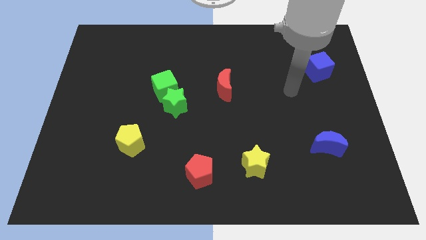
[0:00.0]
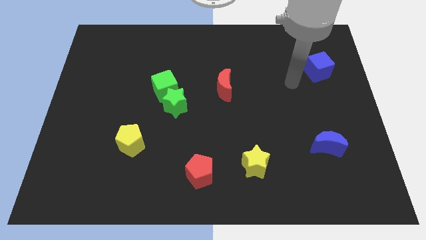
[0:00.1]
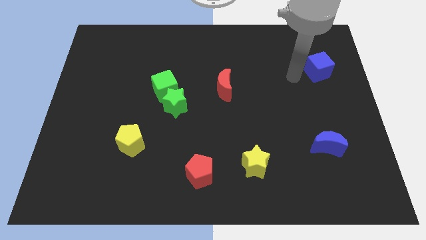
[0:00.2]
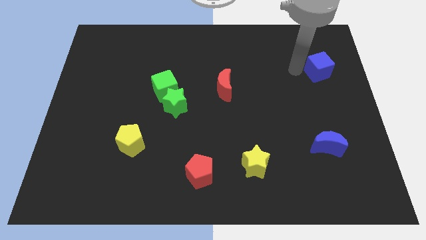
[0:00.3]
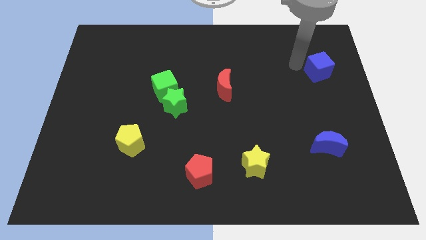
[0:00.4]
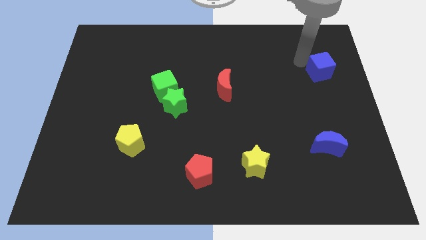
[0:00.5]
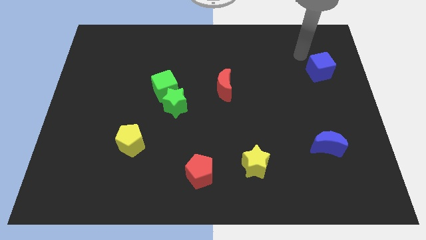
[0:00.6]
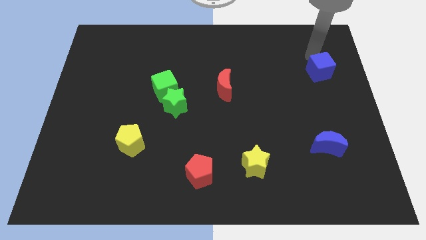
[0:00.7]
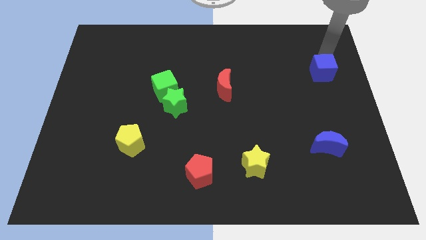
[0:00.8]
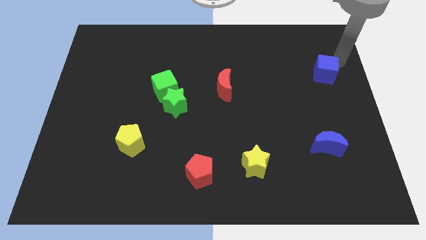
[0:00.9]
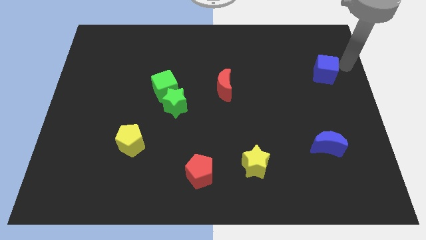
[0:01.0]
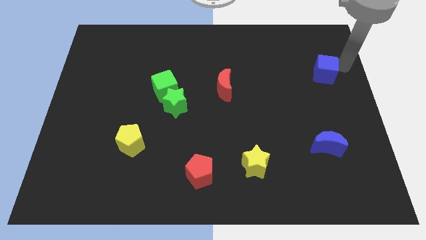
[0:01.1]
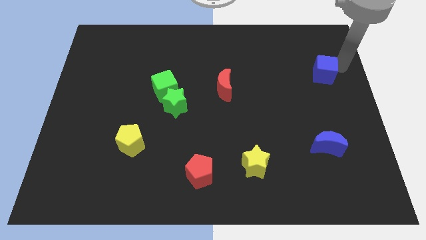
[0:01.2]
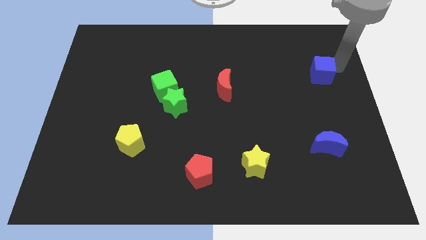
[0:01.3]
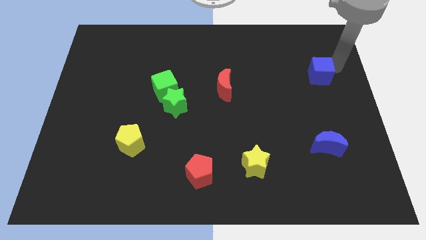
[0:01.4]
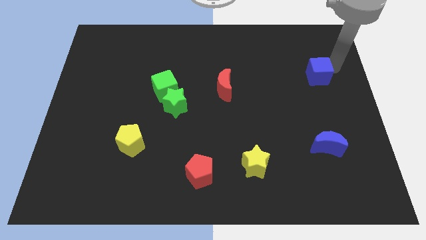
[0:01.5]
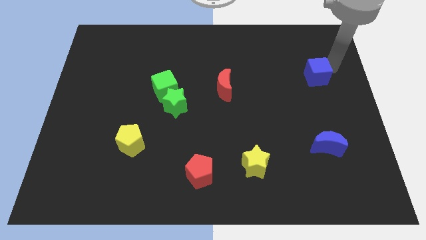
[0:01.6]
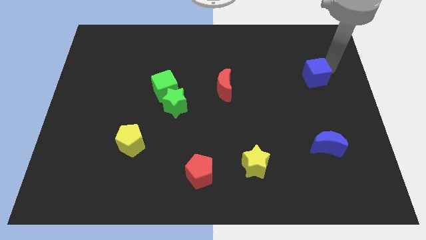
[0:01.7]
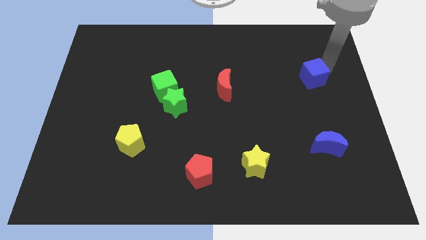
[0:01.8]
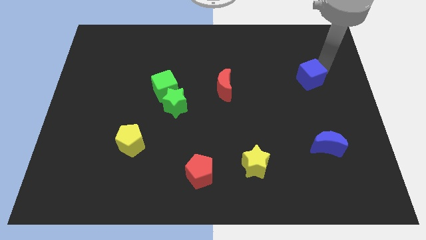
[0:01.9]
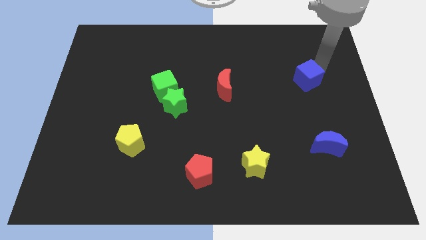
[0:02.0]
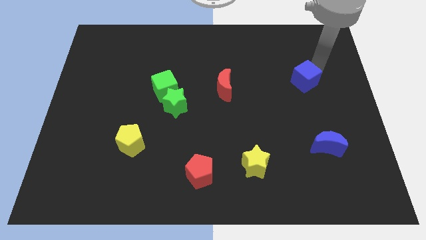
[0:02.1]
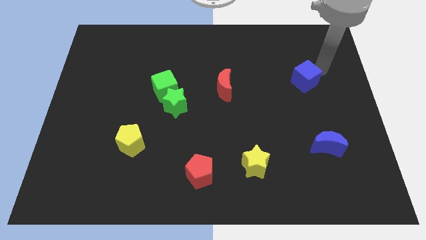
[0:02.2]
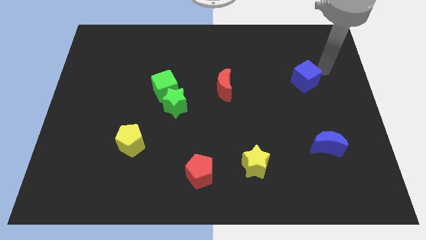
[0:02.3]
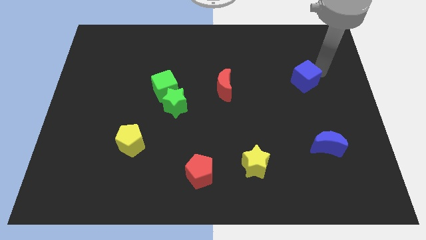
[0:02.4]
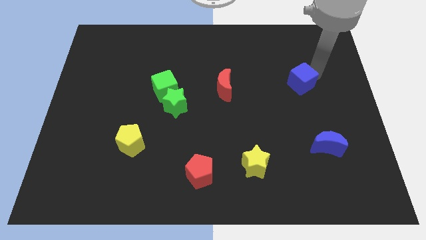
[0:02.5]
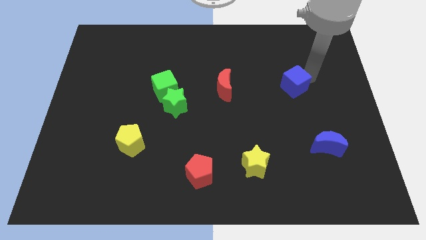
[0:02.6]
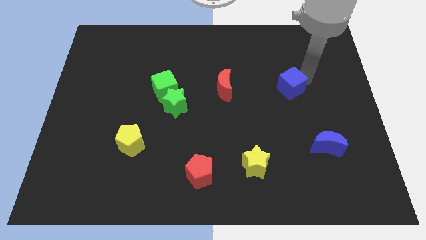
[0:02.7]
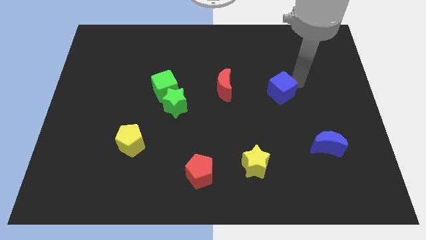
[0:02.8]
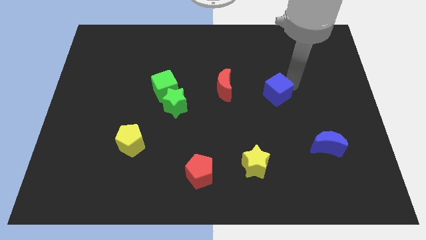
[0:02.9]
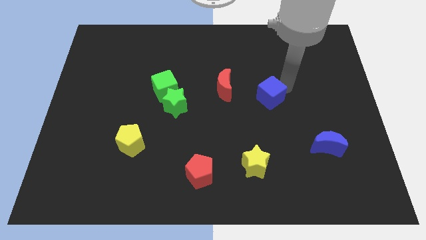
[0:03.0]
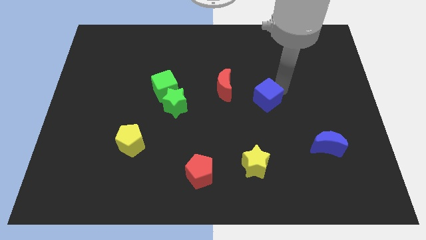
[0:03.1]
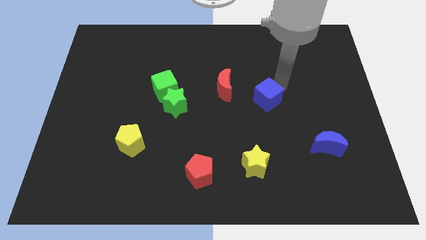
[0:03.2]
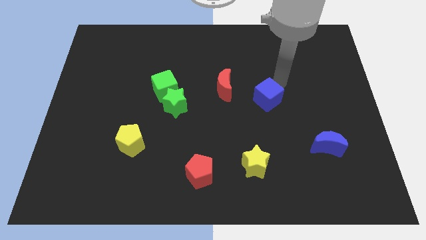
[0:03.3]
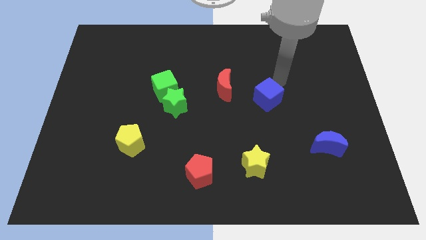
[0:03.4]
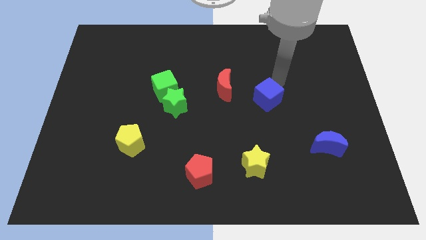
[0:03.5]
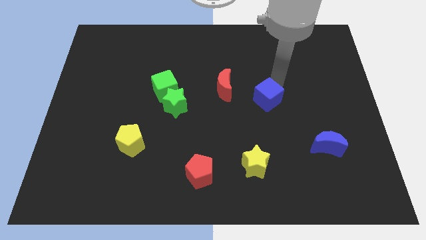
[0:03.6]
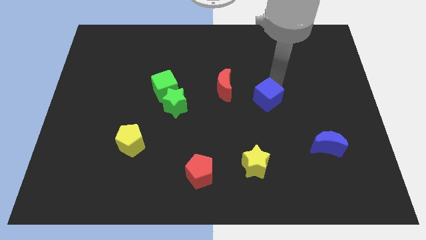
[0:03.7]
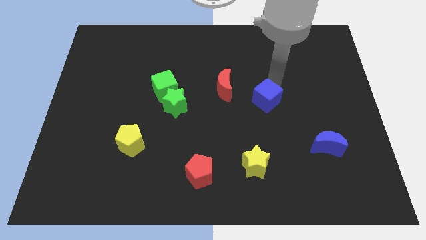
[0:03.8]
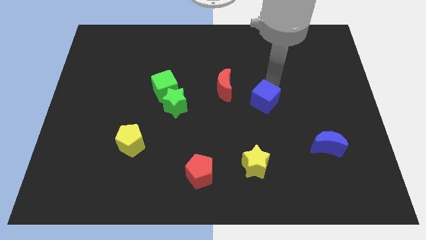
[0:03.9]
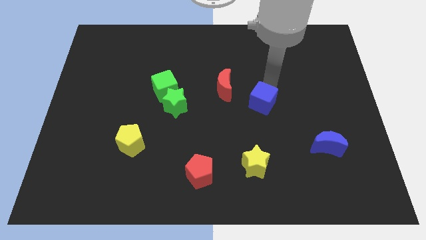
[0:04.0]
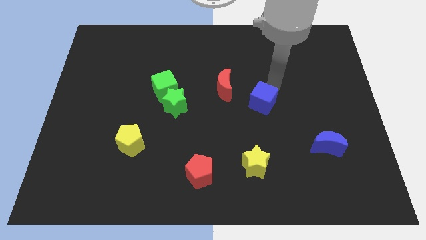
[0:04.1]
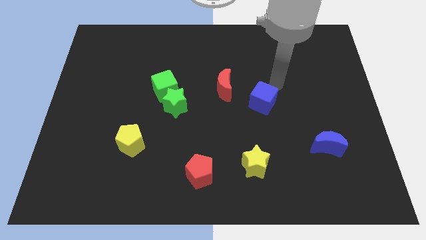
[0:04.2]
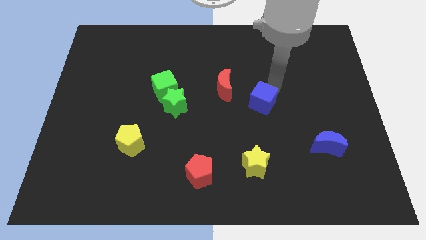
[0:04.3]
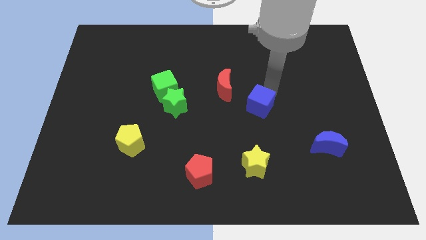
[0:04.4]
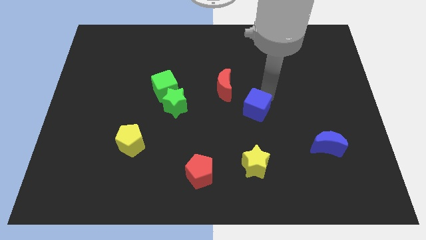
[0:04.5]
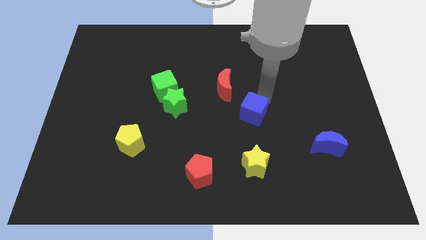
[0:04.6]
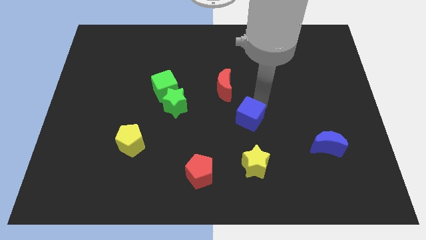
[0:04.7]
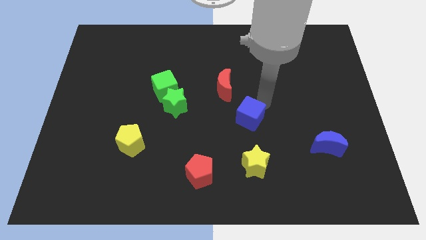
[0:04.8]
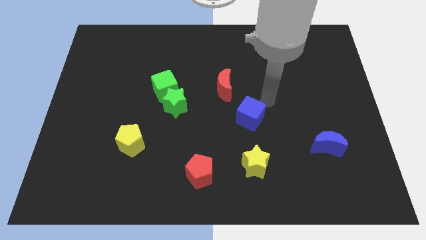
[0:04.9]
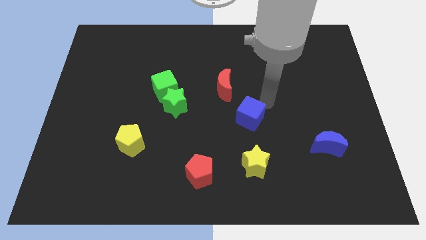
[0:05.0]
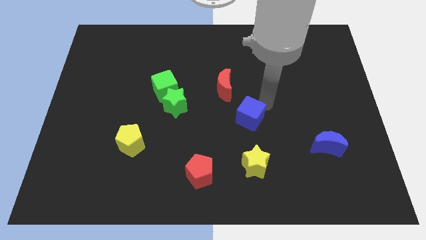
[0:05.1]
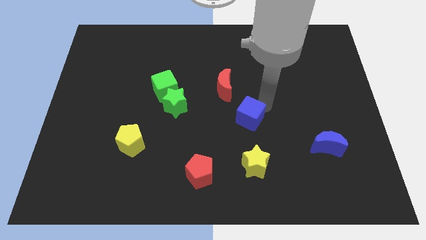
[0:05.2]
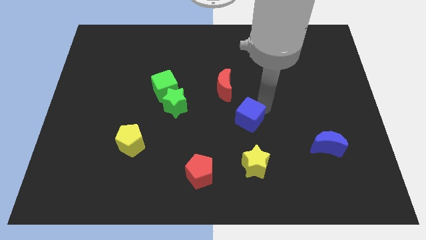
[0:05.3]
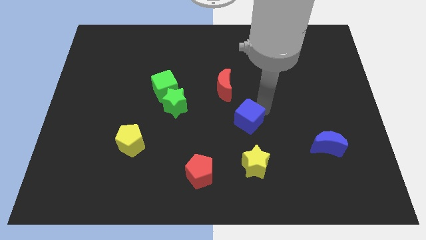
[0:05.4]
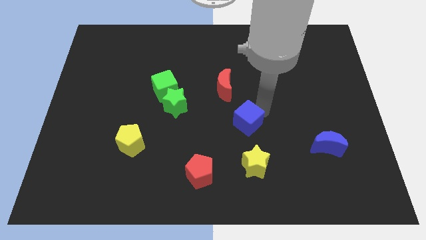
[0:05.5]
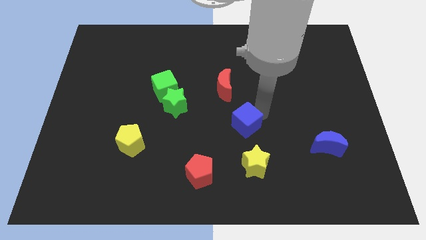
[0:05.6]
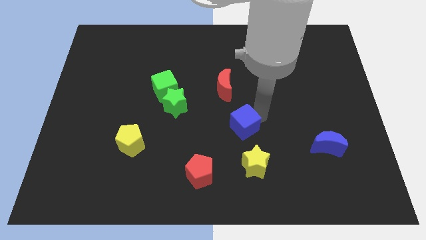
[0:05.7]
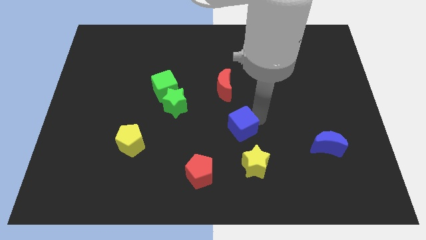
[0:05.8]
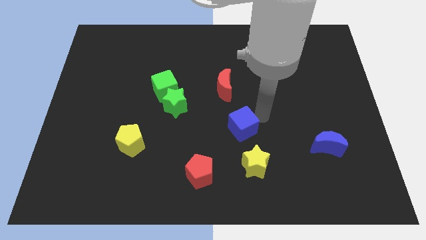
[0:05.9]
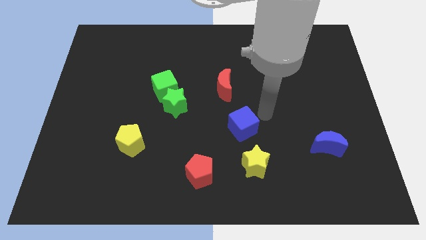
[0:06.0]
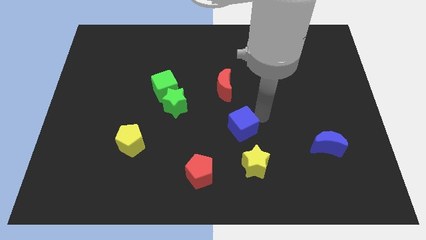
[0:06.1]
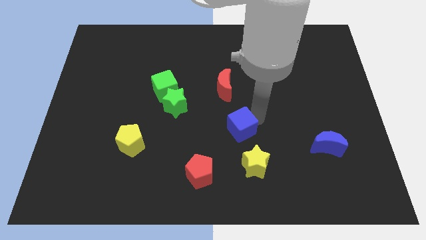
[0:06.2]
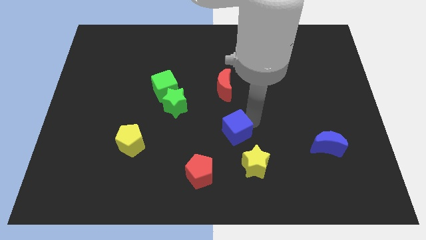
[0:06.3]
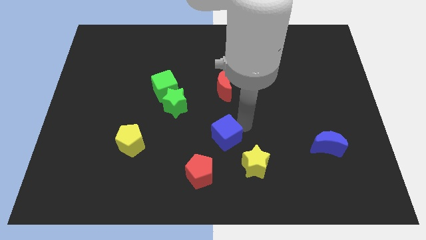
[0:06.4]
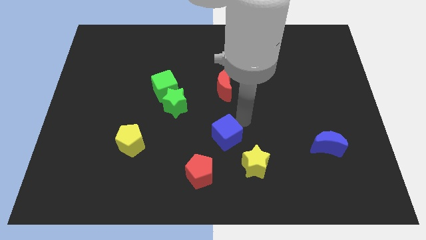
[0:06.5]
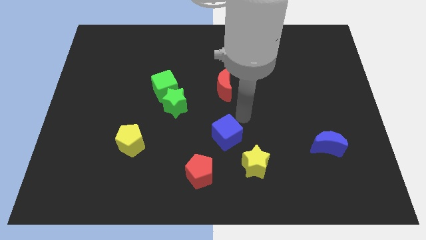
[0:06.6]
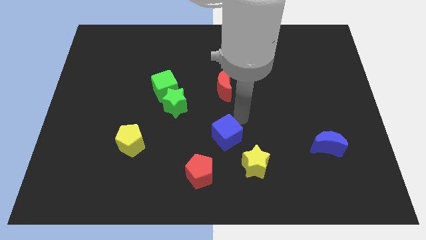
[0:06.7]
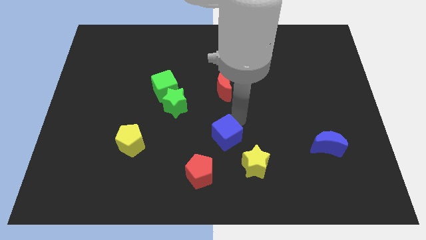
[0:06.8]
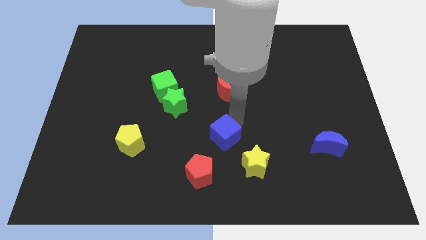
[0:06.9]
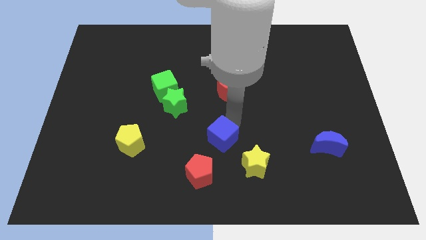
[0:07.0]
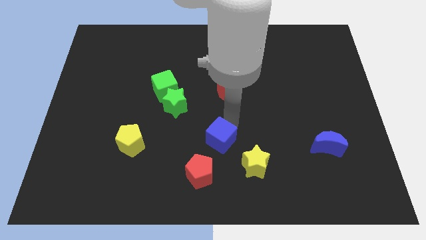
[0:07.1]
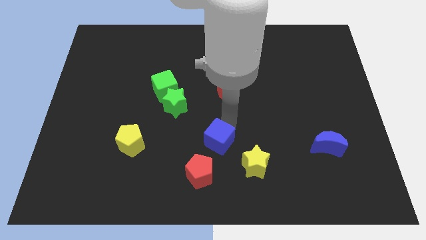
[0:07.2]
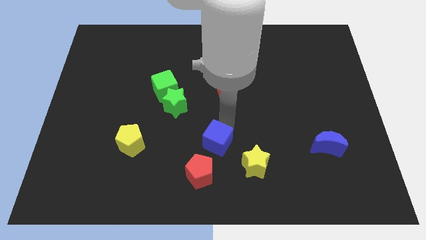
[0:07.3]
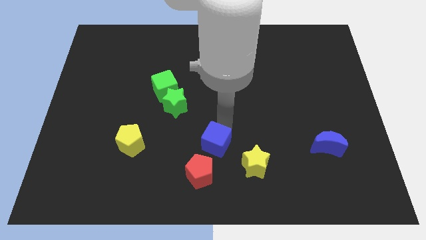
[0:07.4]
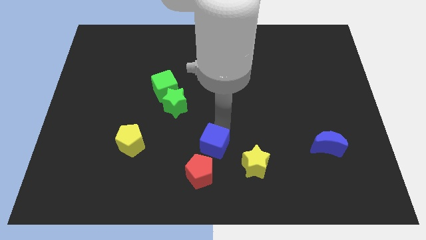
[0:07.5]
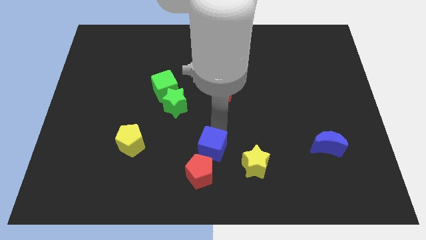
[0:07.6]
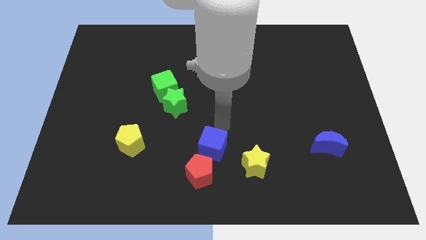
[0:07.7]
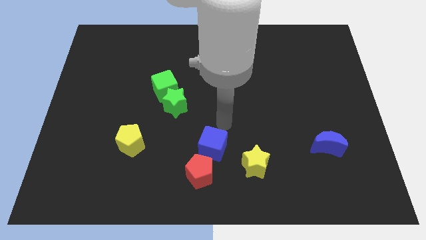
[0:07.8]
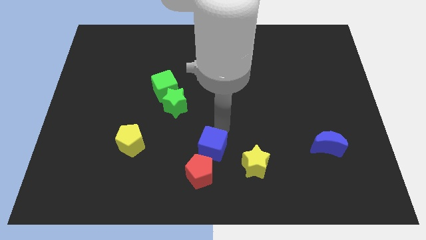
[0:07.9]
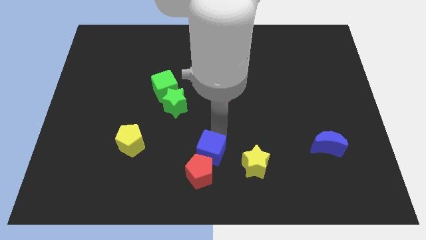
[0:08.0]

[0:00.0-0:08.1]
put the blue cube next to the red pentagon
